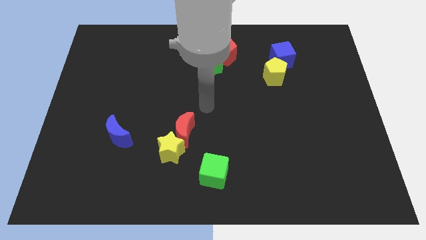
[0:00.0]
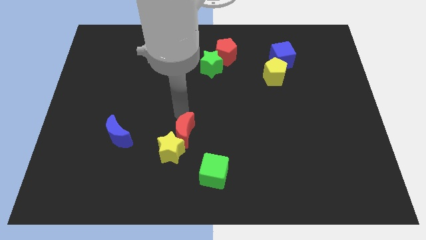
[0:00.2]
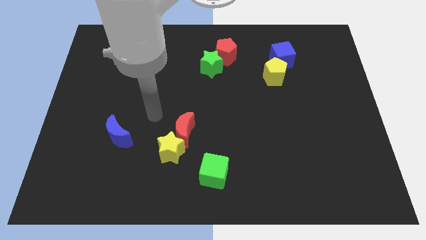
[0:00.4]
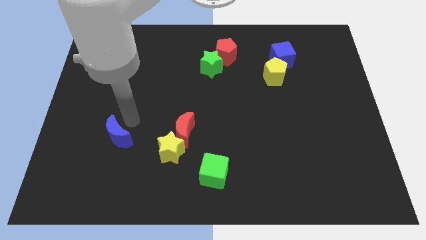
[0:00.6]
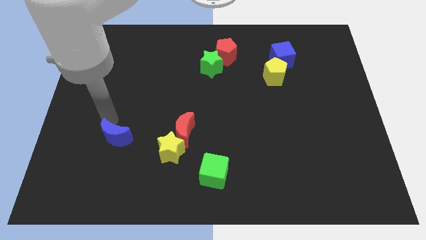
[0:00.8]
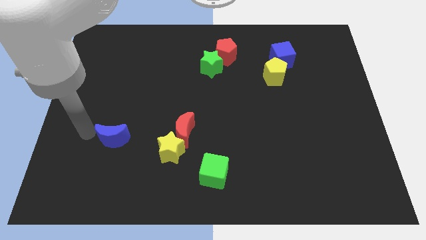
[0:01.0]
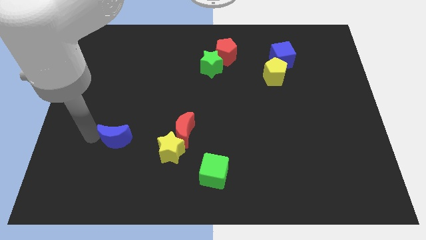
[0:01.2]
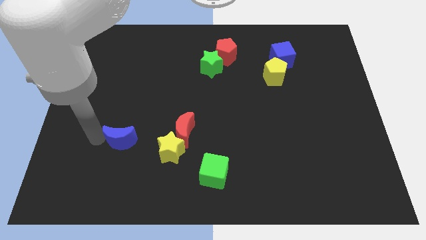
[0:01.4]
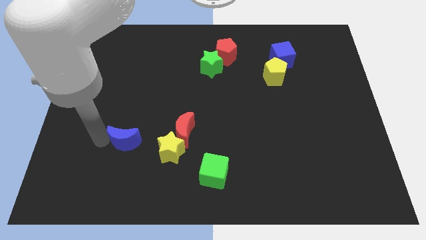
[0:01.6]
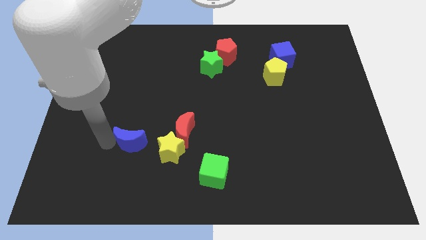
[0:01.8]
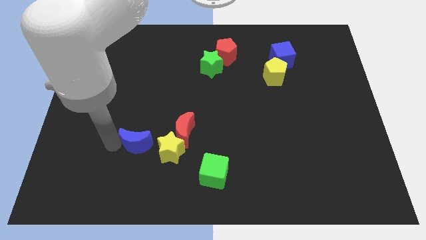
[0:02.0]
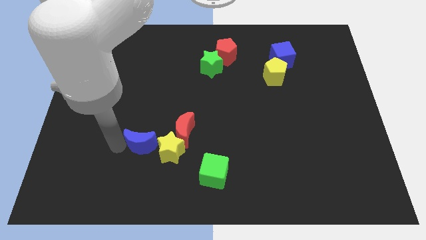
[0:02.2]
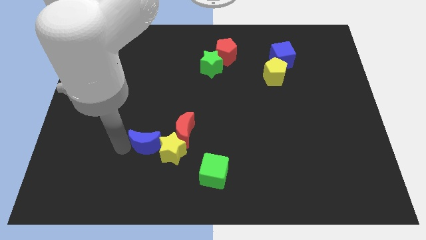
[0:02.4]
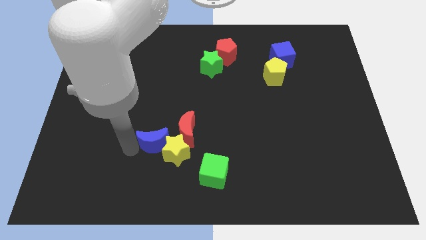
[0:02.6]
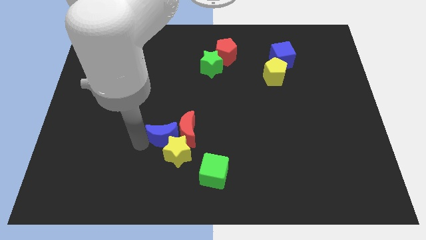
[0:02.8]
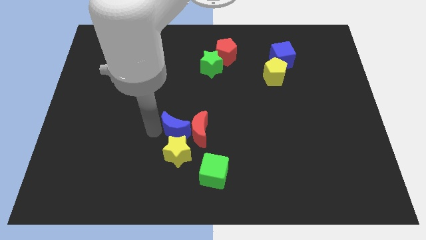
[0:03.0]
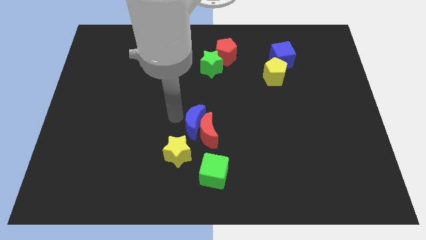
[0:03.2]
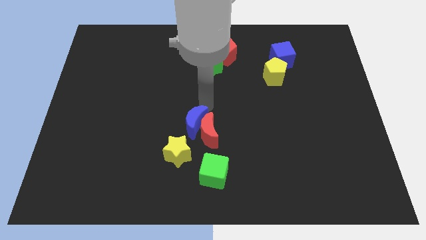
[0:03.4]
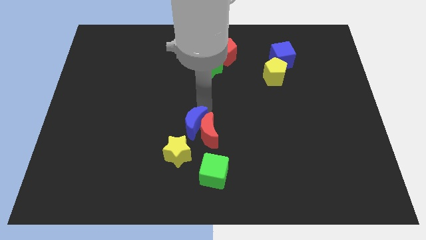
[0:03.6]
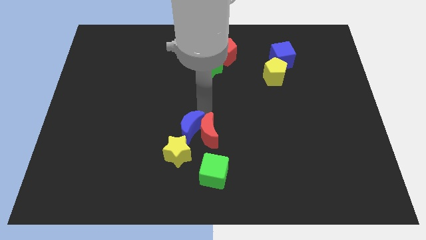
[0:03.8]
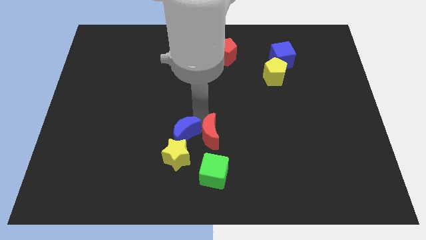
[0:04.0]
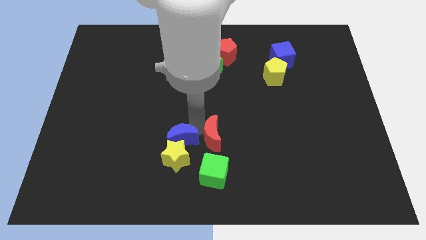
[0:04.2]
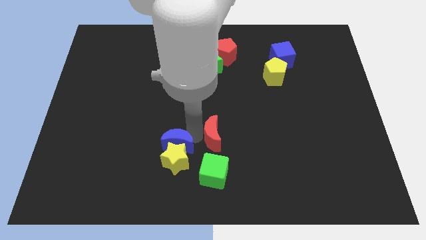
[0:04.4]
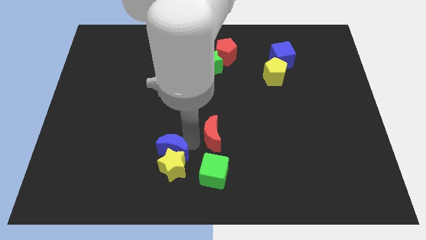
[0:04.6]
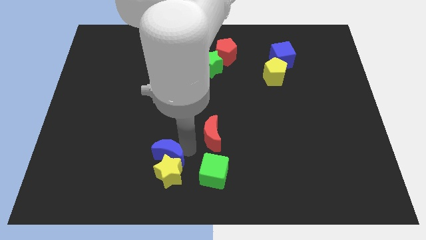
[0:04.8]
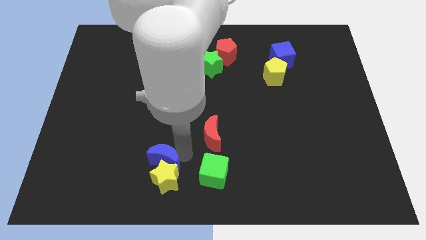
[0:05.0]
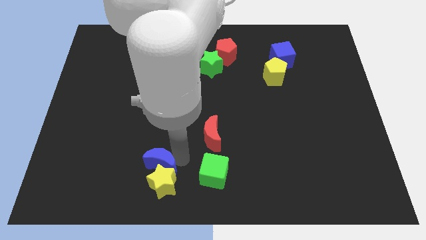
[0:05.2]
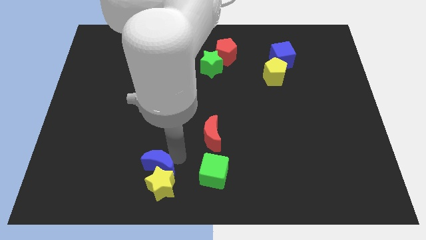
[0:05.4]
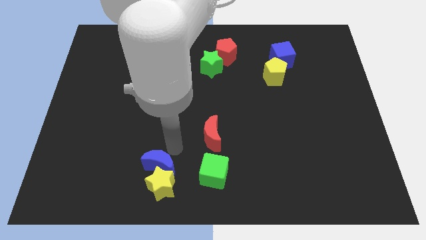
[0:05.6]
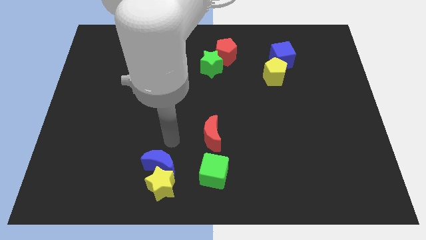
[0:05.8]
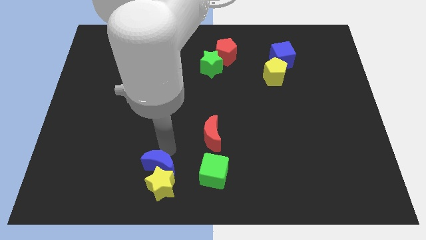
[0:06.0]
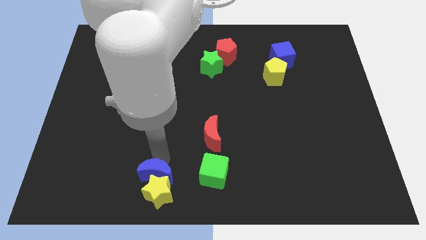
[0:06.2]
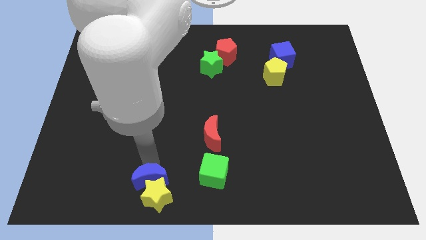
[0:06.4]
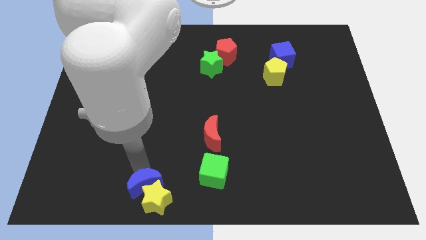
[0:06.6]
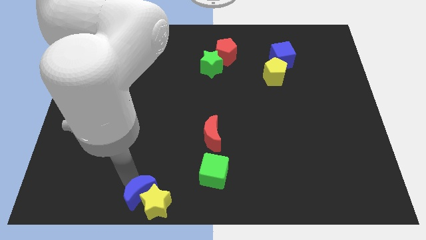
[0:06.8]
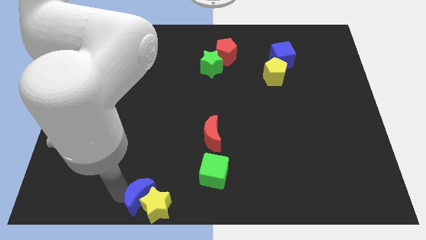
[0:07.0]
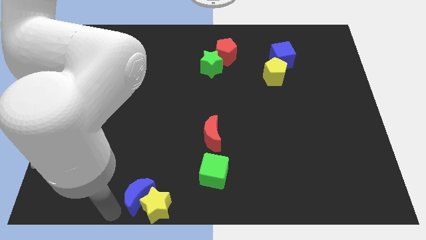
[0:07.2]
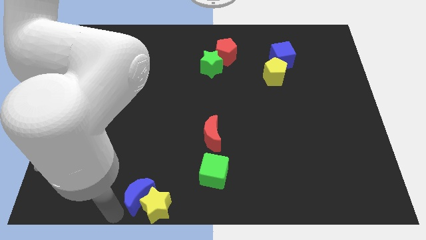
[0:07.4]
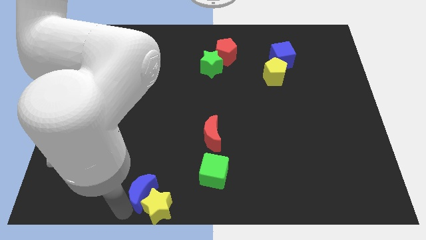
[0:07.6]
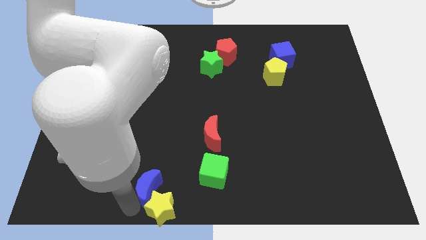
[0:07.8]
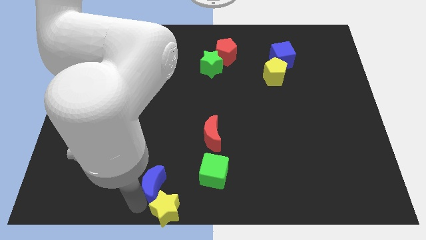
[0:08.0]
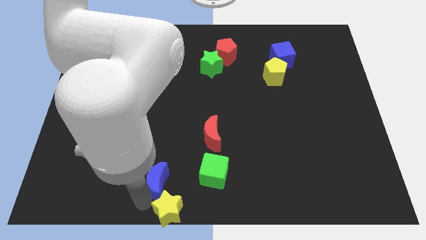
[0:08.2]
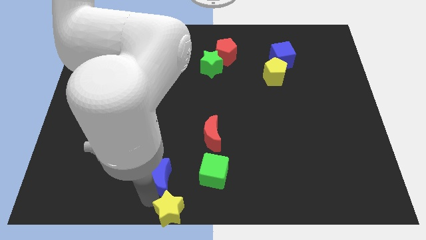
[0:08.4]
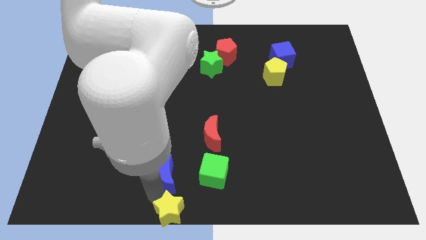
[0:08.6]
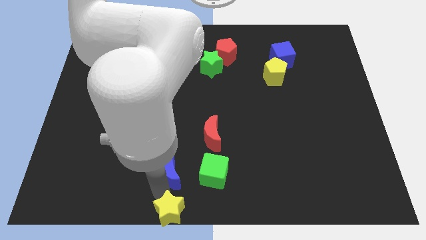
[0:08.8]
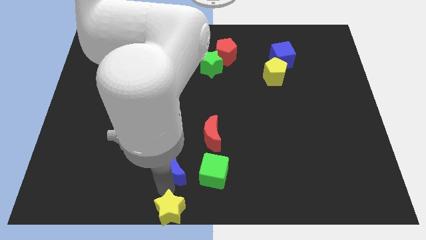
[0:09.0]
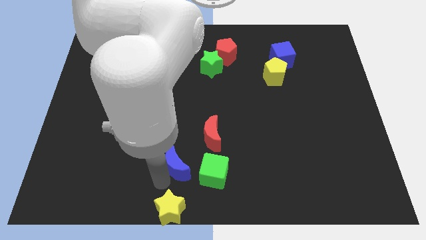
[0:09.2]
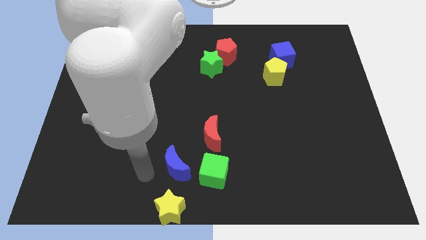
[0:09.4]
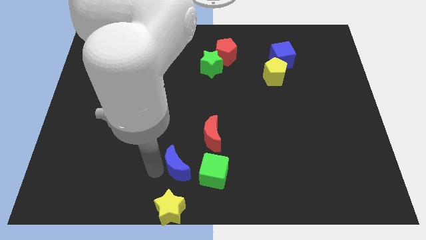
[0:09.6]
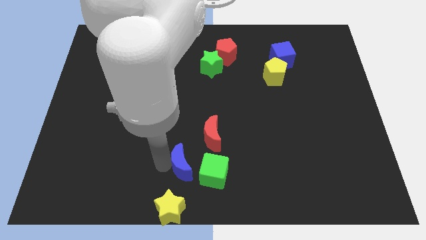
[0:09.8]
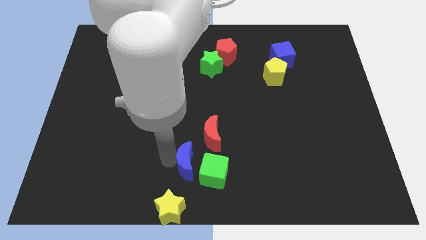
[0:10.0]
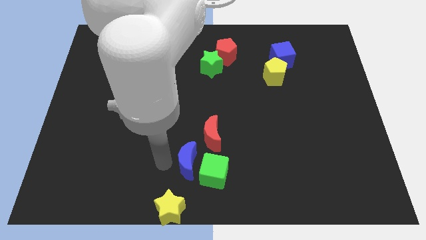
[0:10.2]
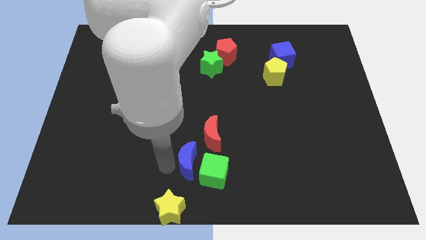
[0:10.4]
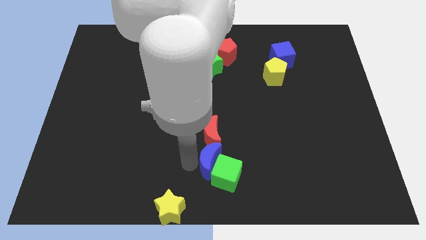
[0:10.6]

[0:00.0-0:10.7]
put the blue moon to the bottom right side of the red moon

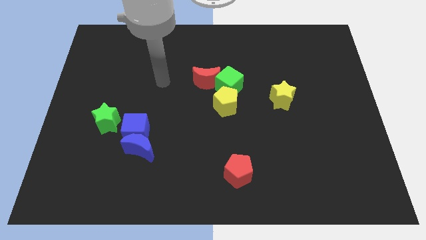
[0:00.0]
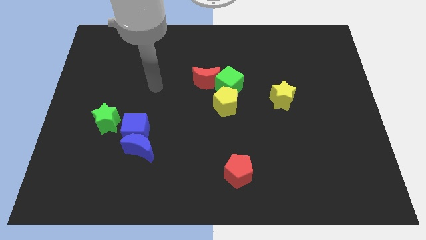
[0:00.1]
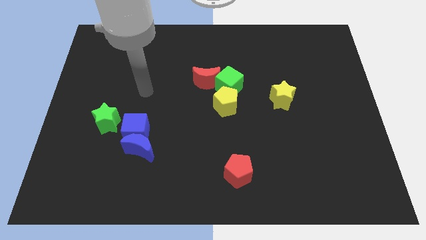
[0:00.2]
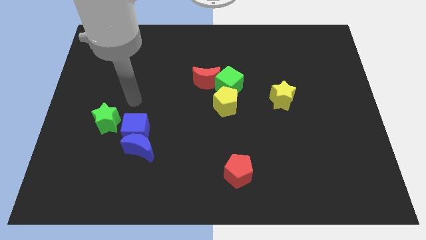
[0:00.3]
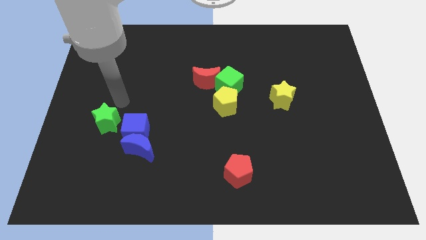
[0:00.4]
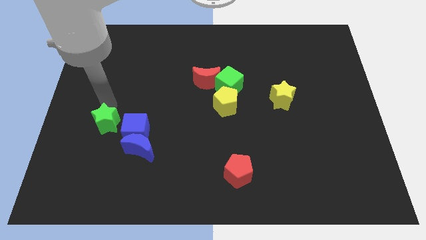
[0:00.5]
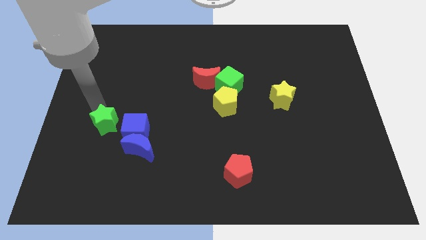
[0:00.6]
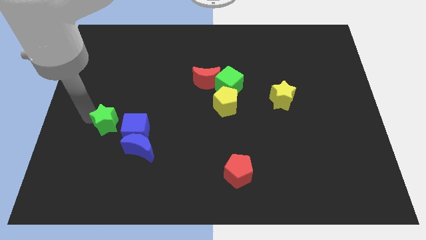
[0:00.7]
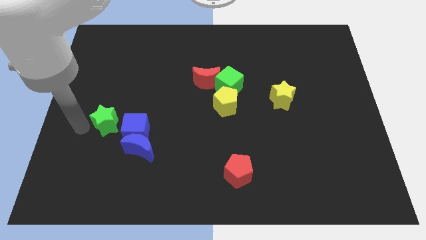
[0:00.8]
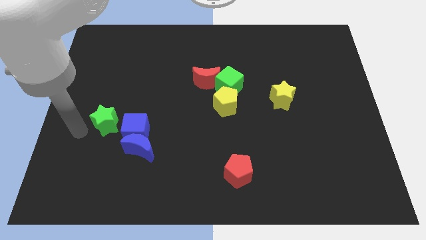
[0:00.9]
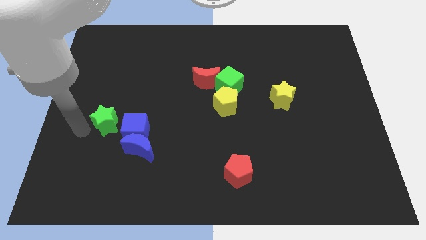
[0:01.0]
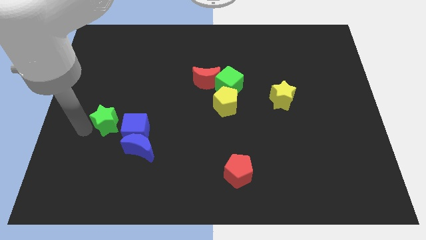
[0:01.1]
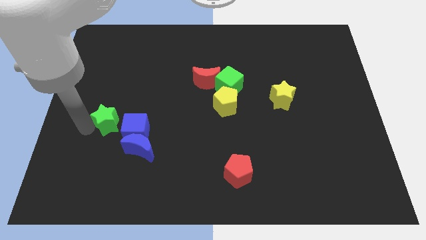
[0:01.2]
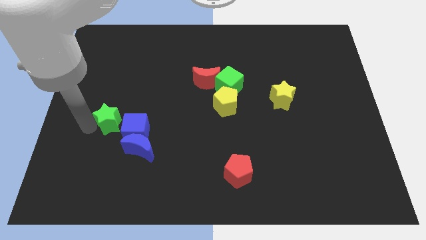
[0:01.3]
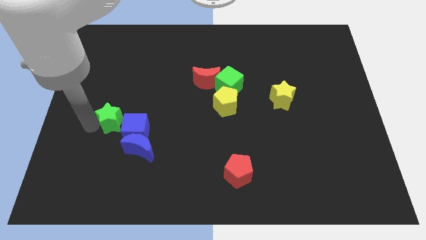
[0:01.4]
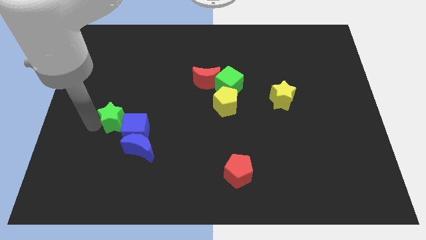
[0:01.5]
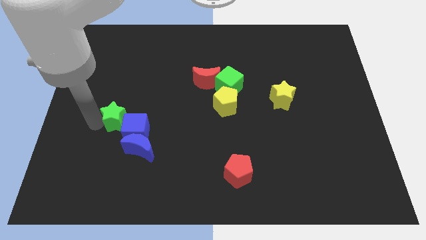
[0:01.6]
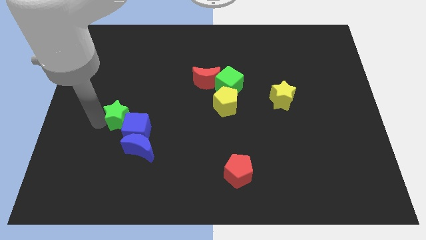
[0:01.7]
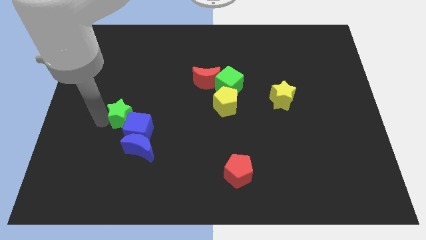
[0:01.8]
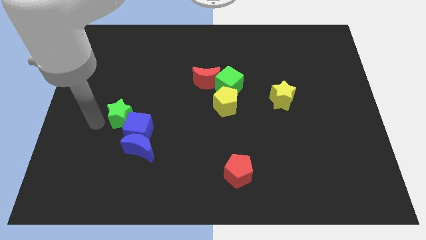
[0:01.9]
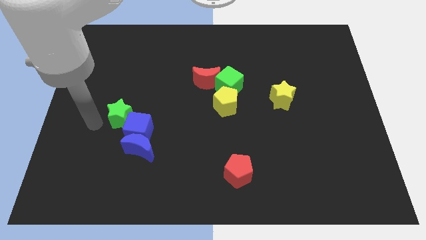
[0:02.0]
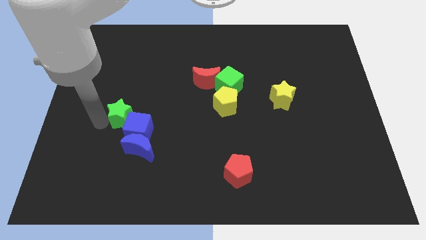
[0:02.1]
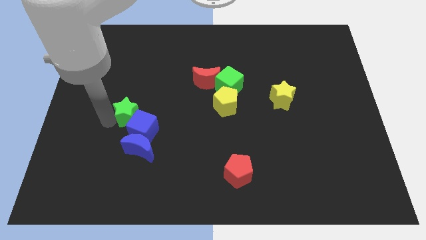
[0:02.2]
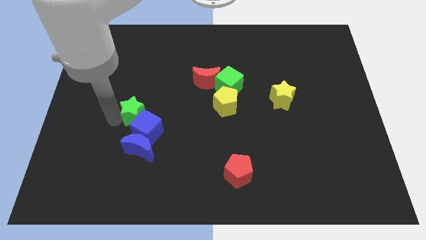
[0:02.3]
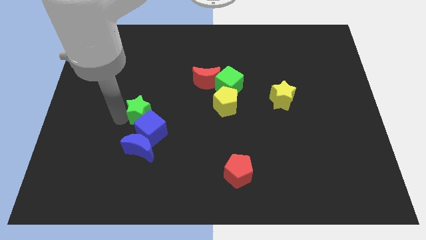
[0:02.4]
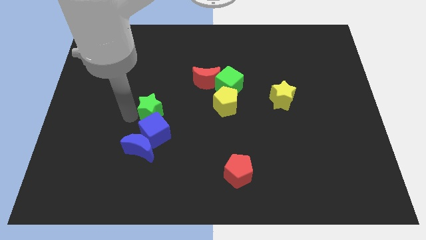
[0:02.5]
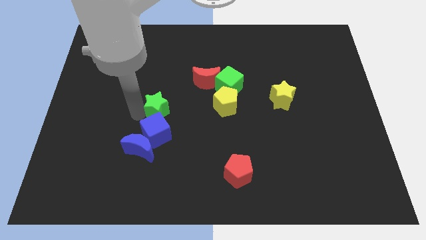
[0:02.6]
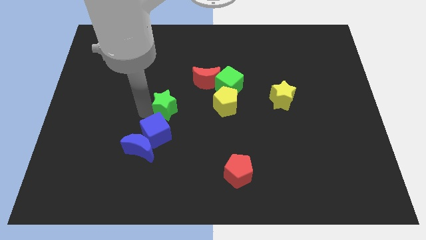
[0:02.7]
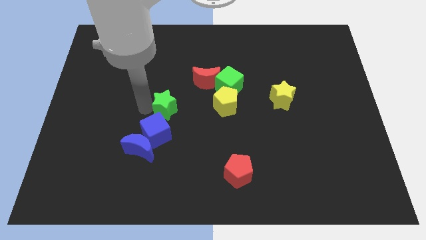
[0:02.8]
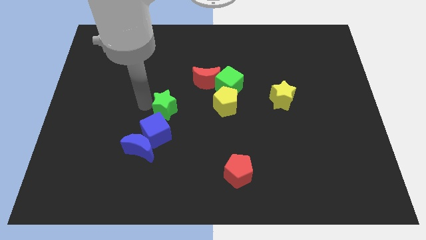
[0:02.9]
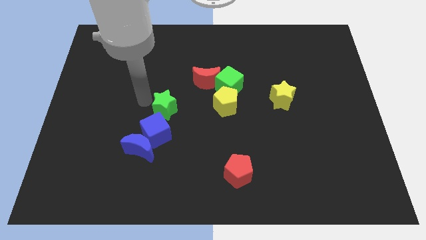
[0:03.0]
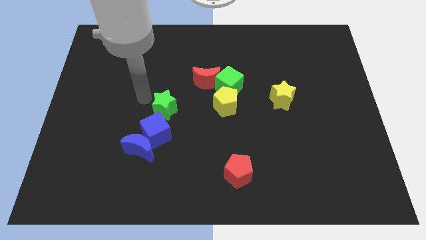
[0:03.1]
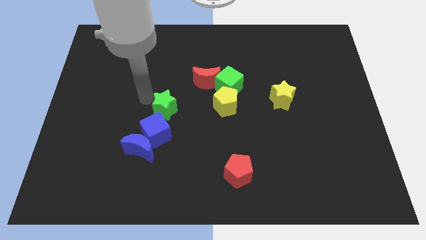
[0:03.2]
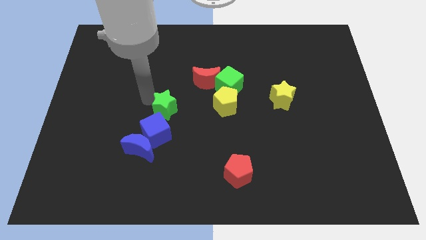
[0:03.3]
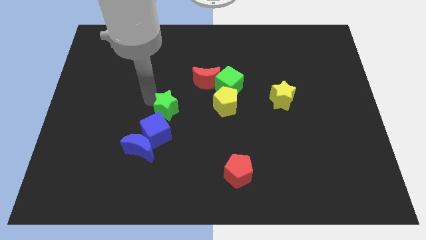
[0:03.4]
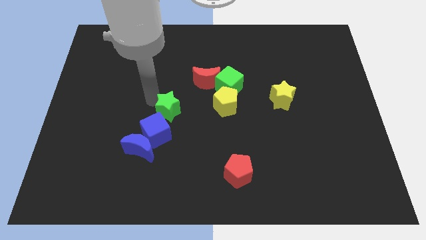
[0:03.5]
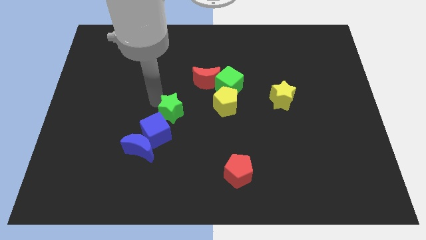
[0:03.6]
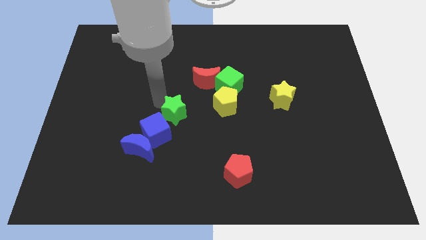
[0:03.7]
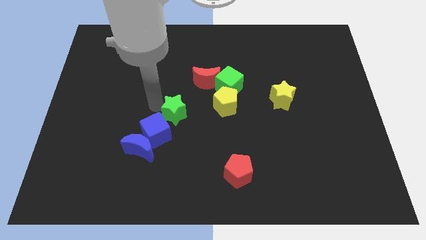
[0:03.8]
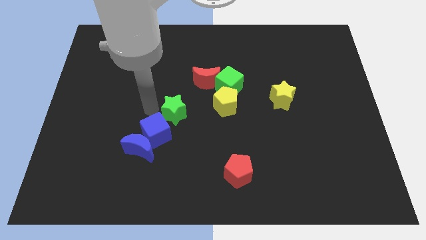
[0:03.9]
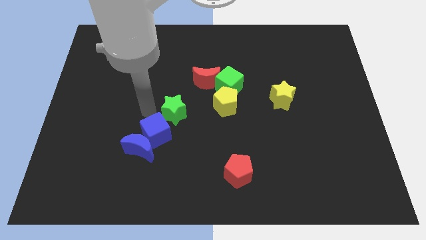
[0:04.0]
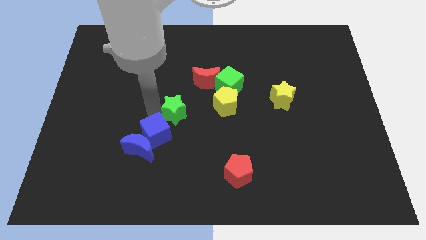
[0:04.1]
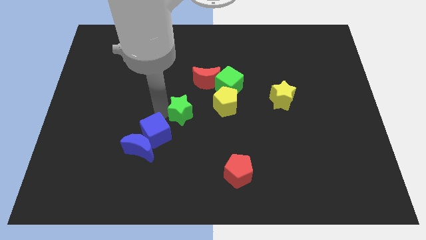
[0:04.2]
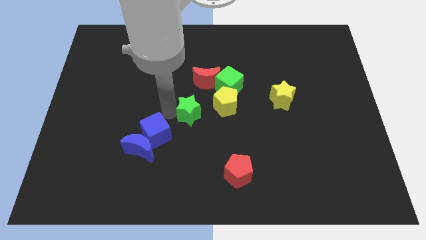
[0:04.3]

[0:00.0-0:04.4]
slide the green star to the bottom of the red moon
